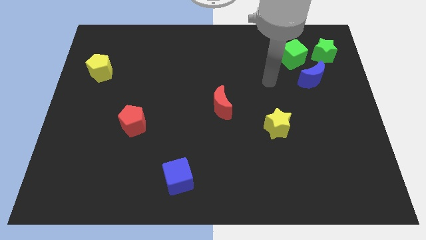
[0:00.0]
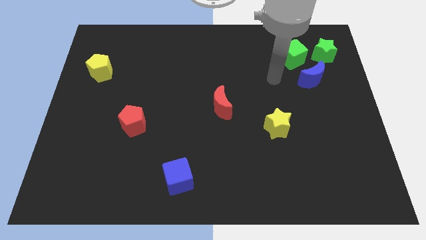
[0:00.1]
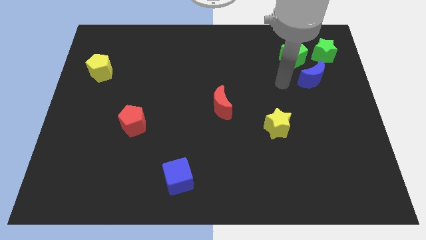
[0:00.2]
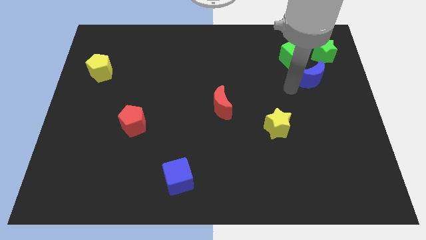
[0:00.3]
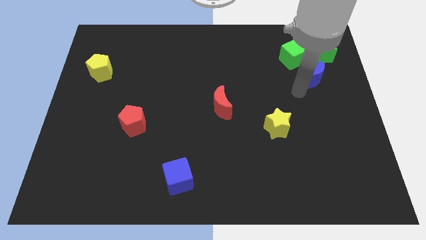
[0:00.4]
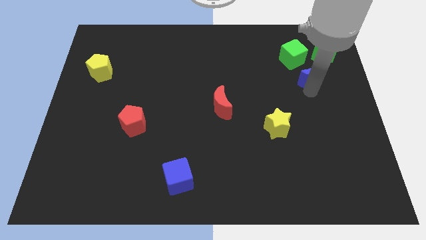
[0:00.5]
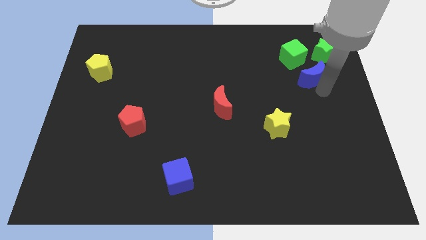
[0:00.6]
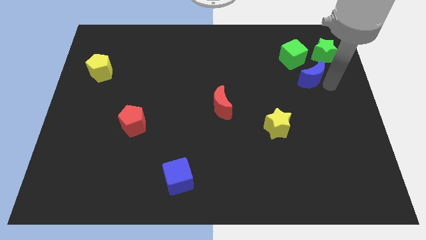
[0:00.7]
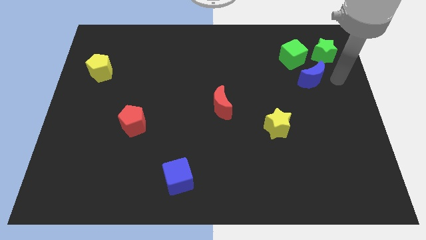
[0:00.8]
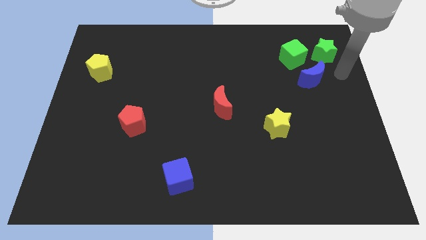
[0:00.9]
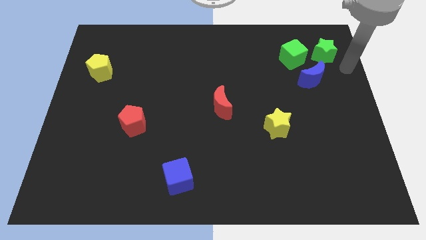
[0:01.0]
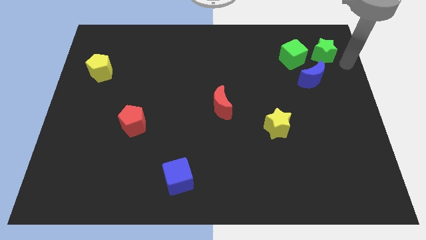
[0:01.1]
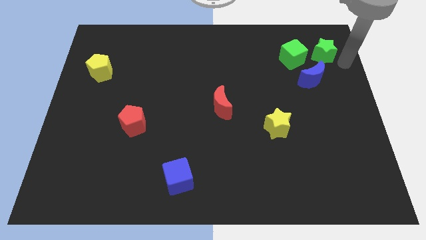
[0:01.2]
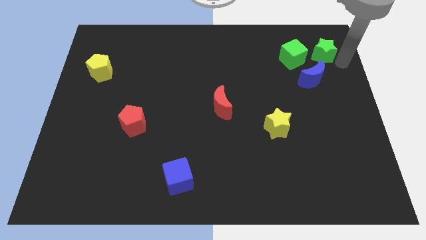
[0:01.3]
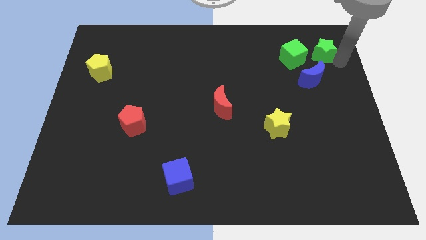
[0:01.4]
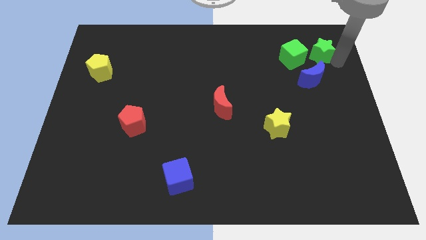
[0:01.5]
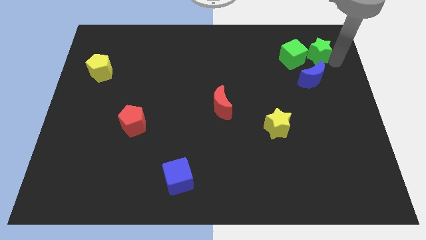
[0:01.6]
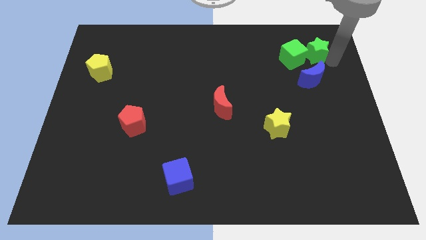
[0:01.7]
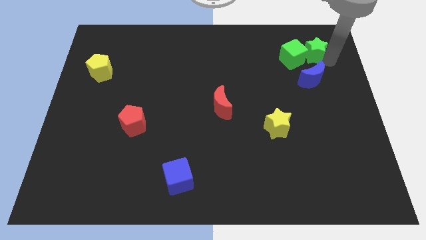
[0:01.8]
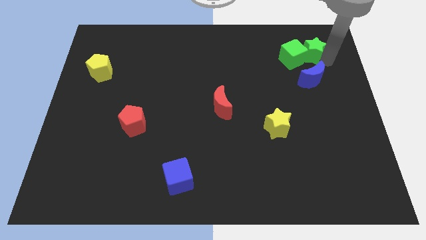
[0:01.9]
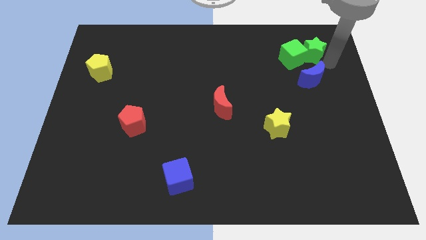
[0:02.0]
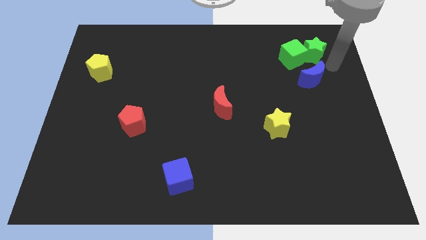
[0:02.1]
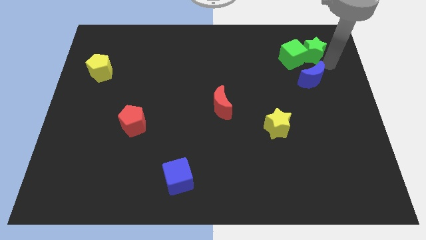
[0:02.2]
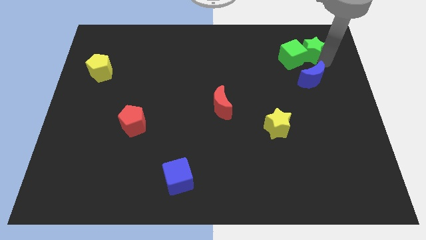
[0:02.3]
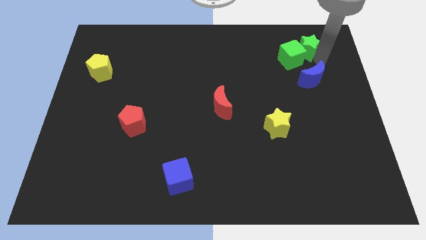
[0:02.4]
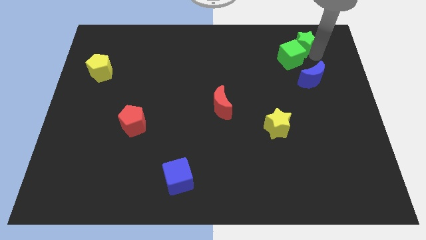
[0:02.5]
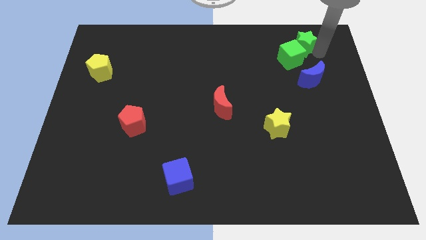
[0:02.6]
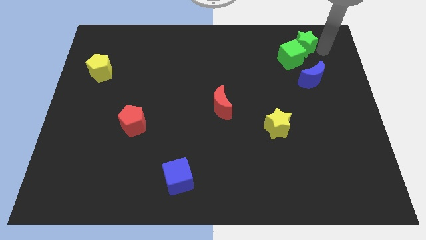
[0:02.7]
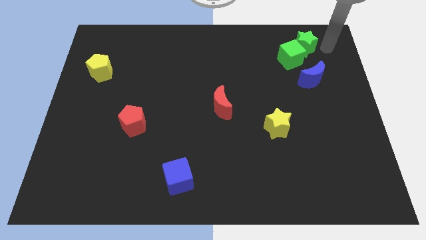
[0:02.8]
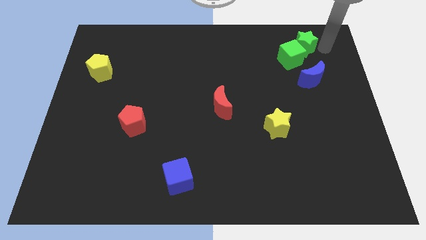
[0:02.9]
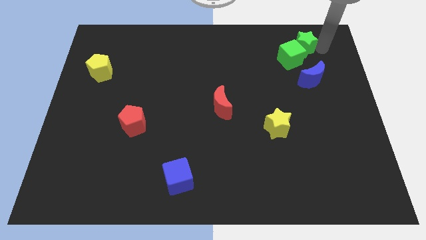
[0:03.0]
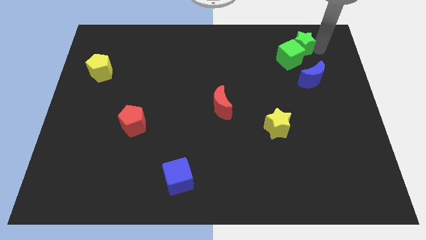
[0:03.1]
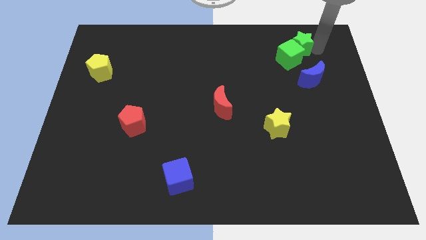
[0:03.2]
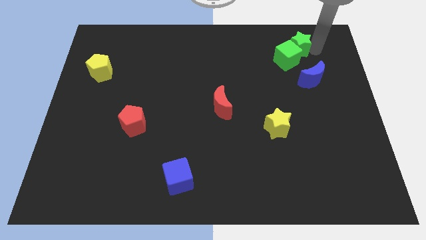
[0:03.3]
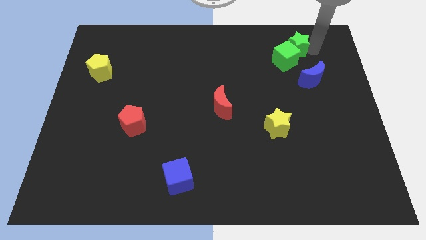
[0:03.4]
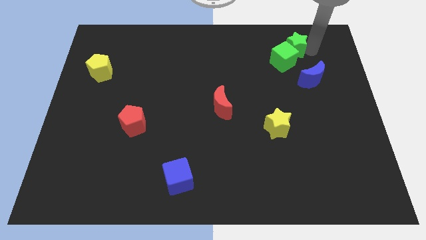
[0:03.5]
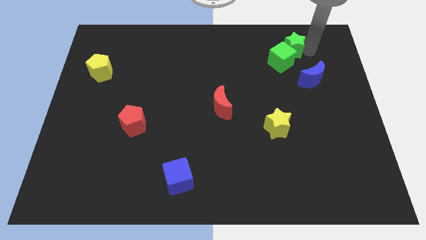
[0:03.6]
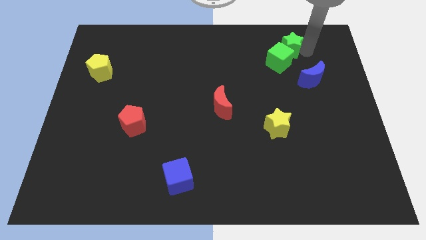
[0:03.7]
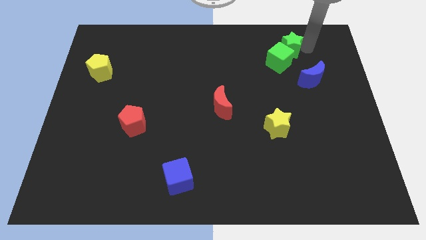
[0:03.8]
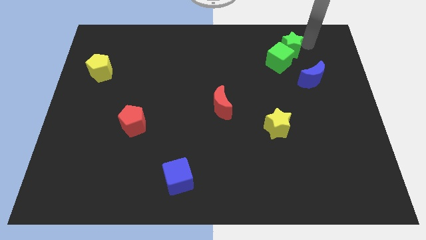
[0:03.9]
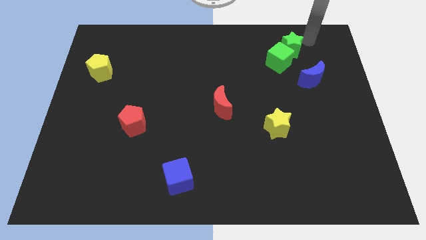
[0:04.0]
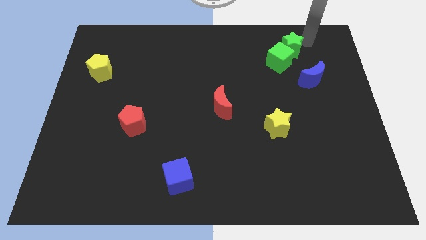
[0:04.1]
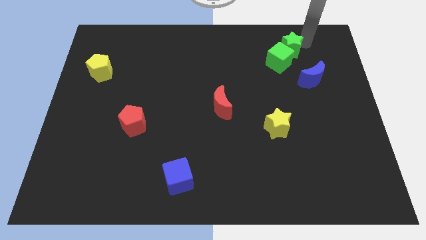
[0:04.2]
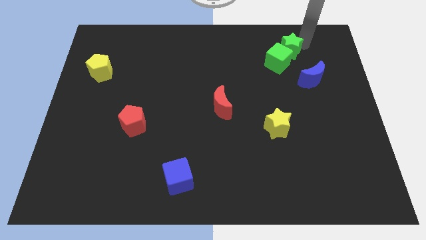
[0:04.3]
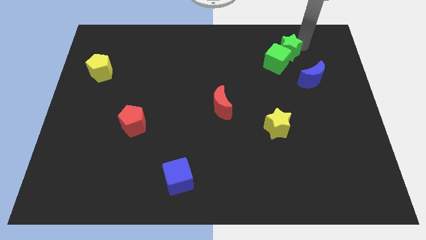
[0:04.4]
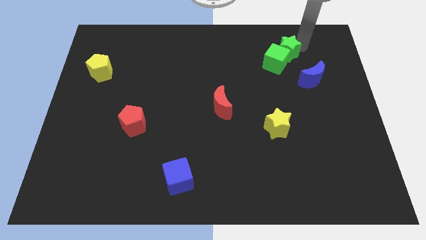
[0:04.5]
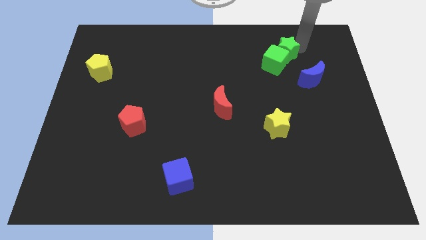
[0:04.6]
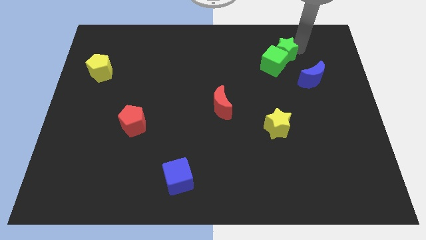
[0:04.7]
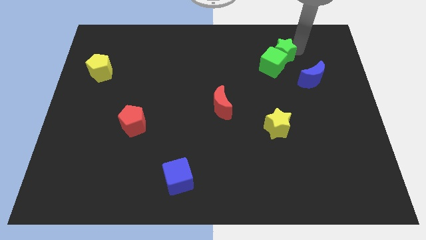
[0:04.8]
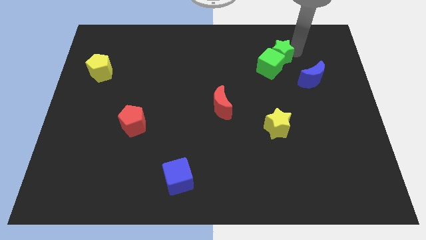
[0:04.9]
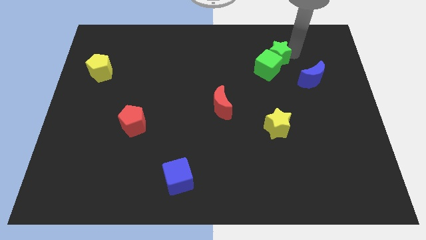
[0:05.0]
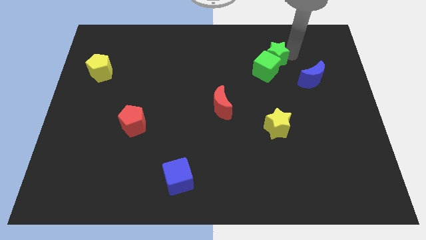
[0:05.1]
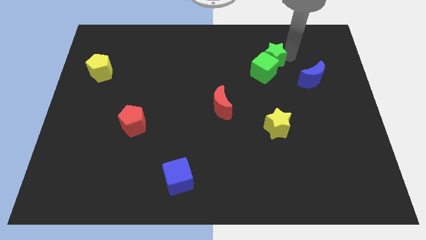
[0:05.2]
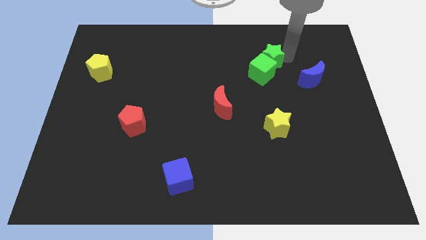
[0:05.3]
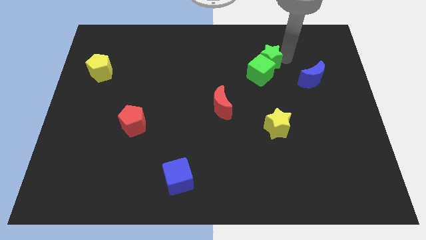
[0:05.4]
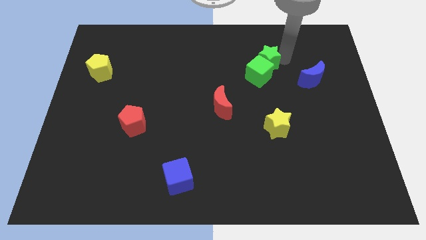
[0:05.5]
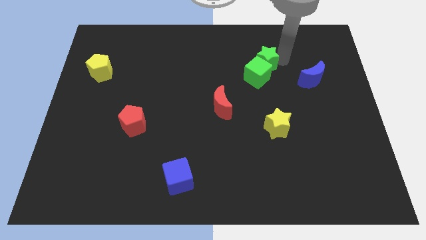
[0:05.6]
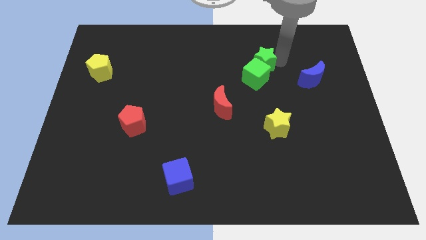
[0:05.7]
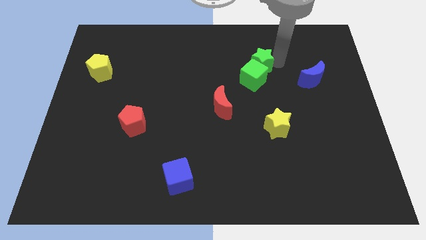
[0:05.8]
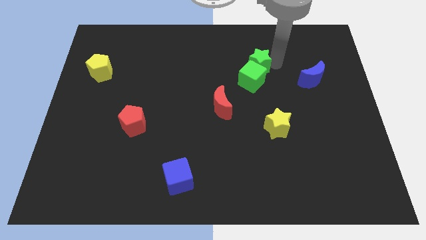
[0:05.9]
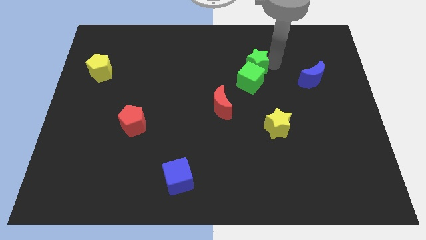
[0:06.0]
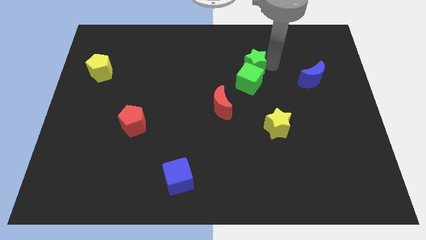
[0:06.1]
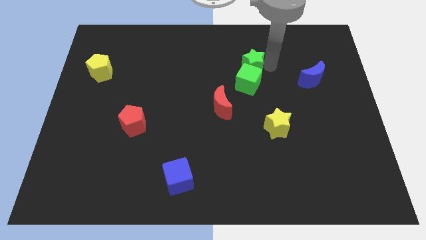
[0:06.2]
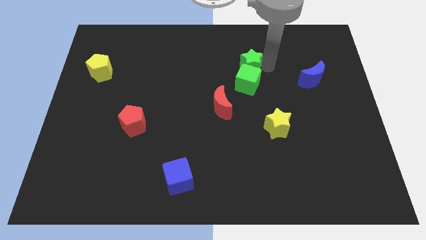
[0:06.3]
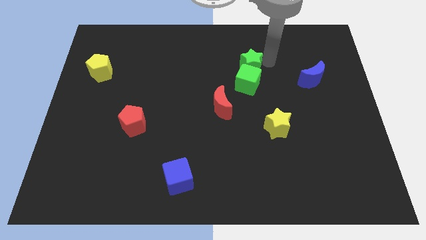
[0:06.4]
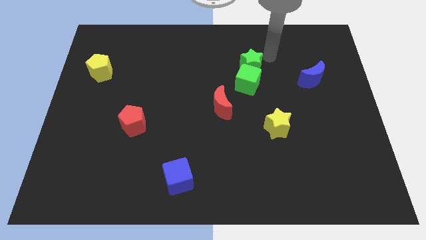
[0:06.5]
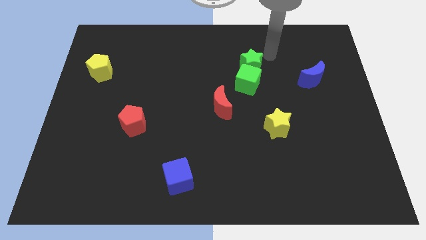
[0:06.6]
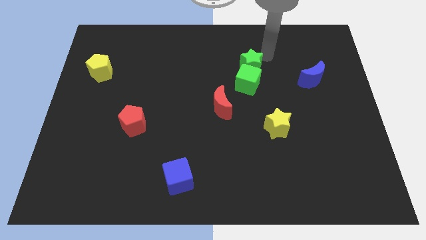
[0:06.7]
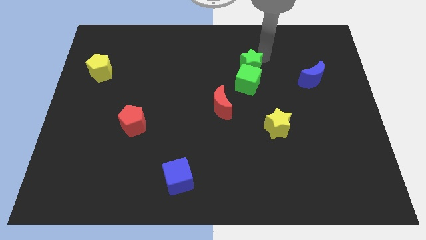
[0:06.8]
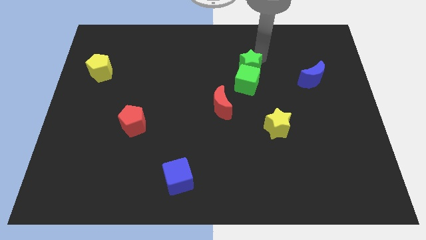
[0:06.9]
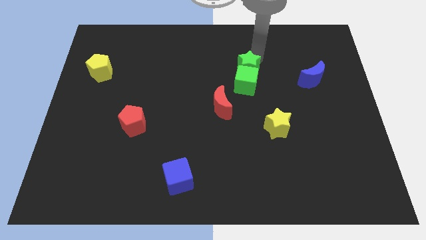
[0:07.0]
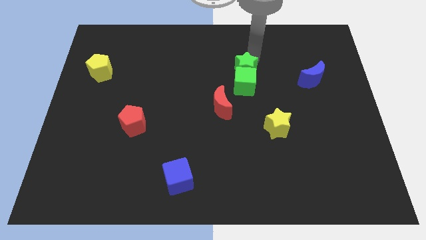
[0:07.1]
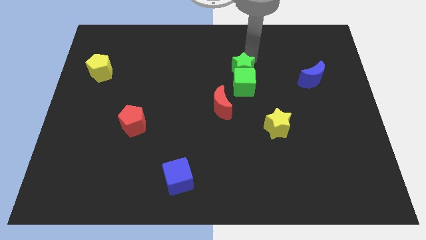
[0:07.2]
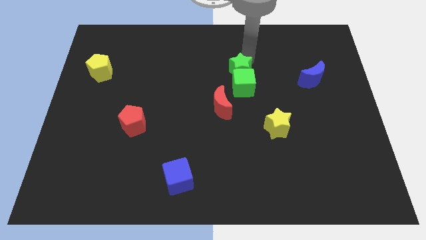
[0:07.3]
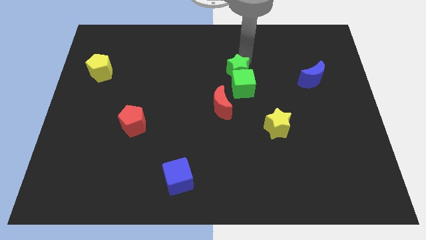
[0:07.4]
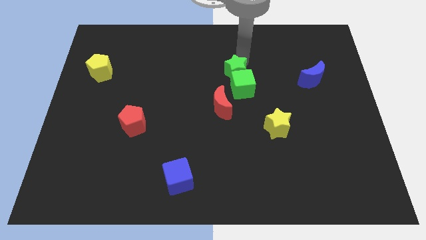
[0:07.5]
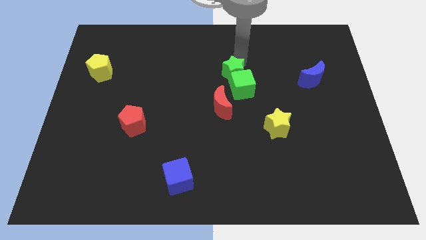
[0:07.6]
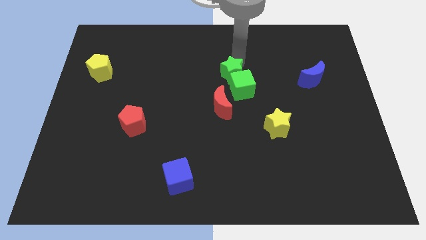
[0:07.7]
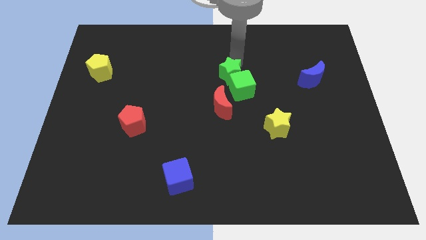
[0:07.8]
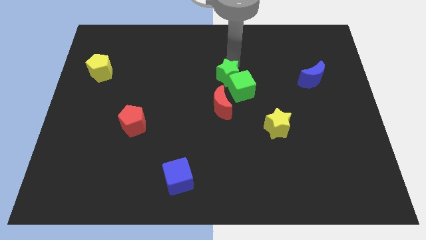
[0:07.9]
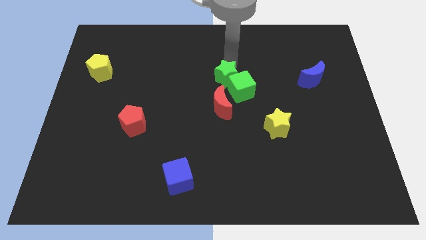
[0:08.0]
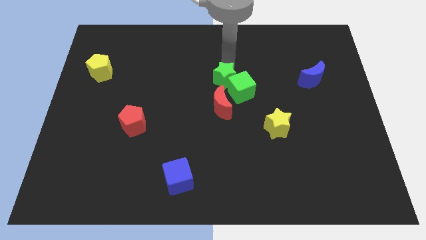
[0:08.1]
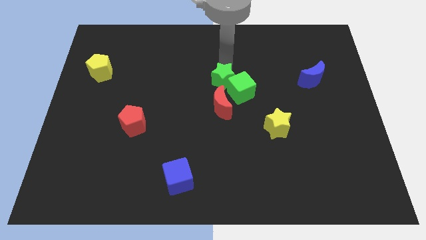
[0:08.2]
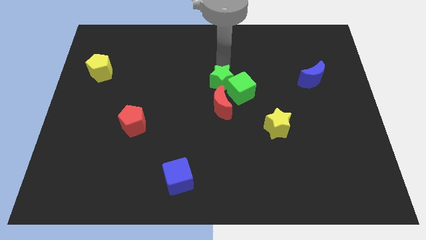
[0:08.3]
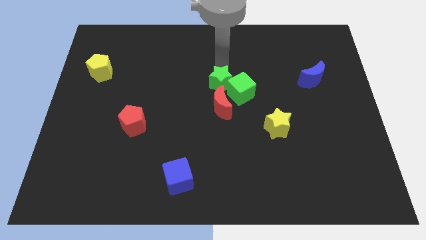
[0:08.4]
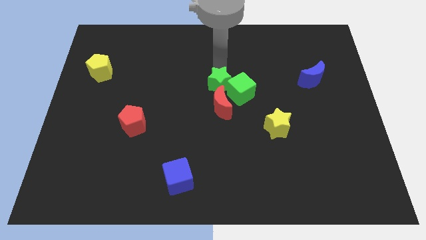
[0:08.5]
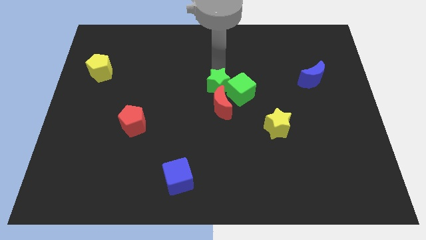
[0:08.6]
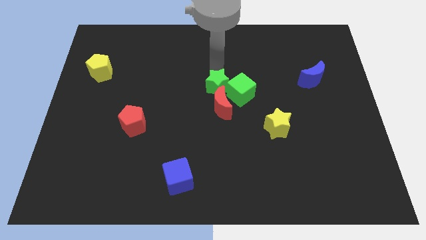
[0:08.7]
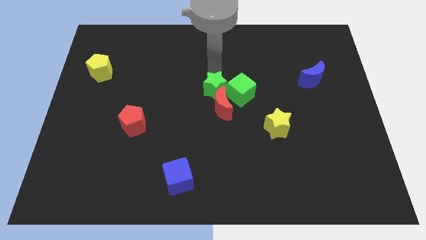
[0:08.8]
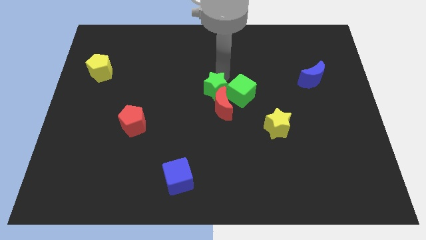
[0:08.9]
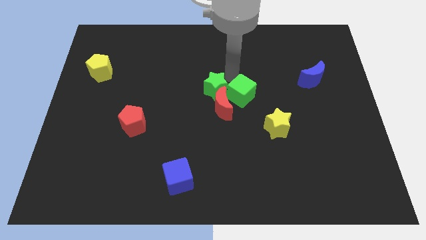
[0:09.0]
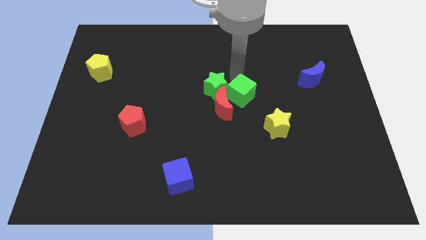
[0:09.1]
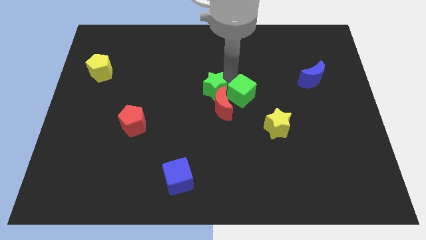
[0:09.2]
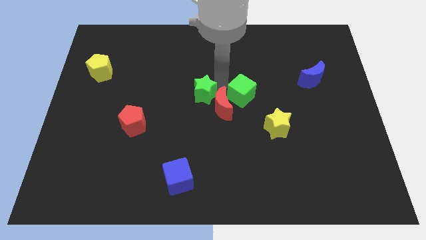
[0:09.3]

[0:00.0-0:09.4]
push the green star to the left of the red moon
